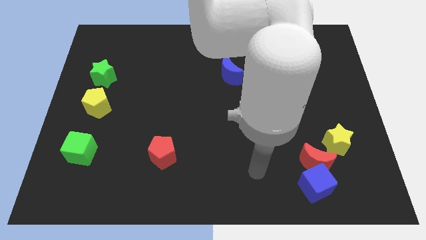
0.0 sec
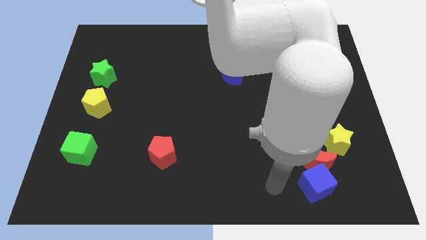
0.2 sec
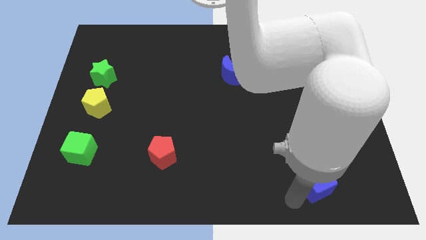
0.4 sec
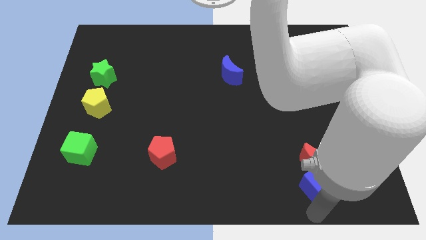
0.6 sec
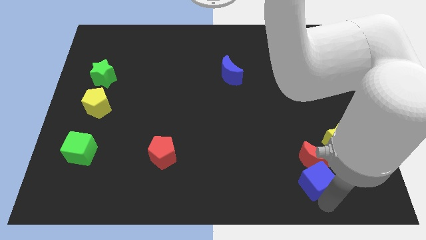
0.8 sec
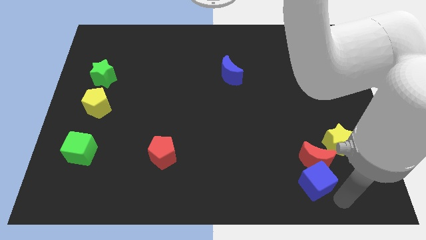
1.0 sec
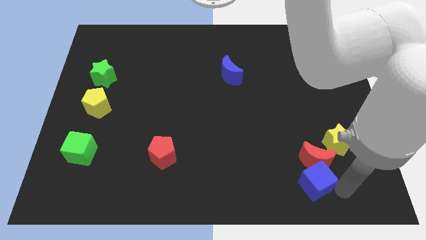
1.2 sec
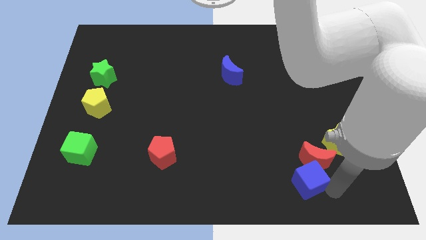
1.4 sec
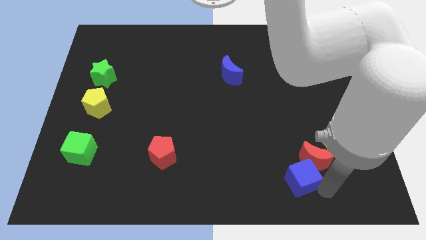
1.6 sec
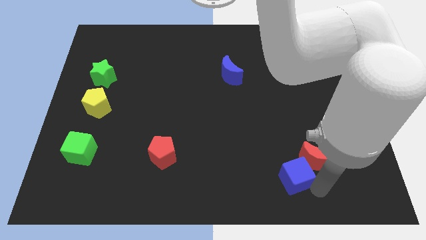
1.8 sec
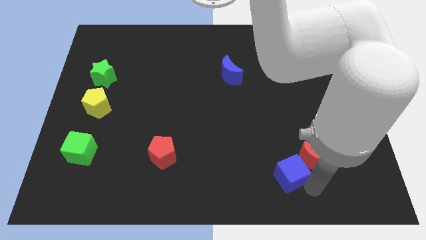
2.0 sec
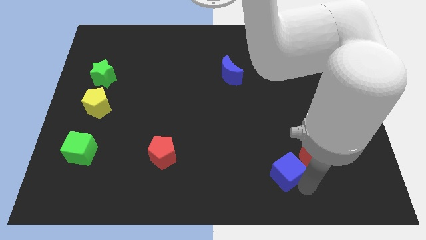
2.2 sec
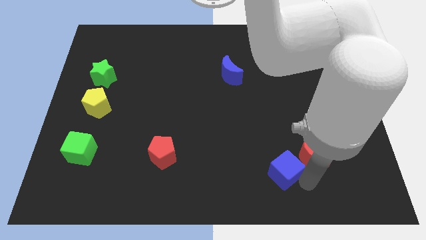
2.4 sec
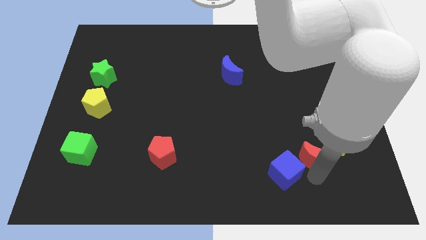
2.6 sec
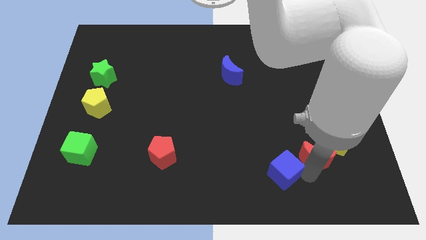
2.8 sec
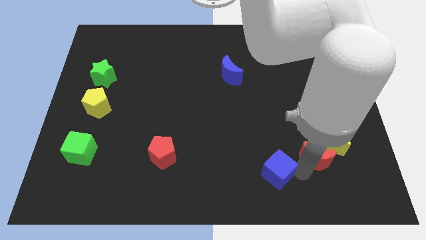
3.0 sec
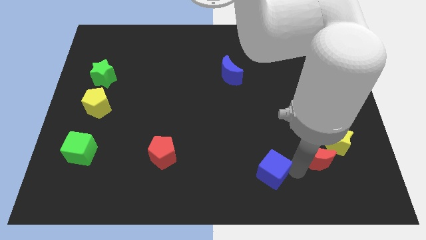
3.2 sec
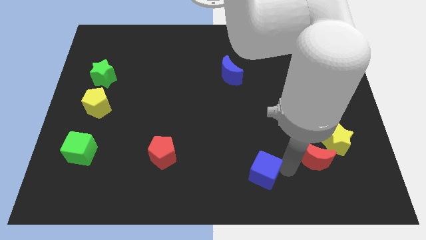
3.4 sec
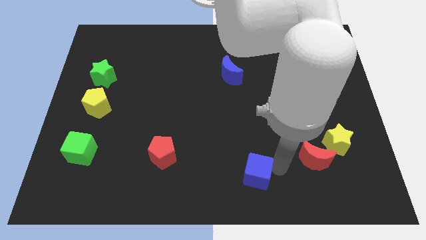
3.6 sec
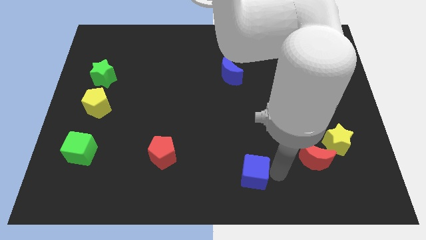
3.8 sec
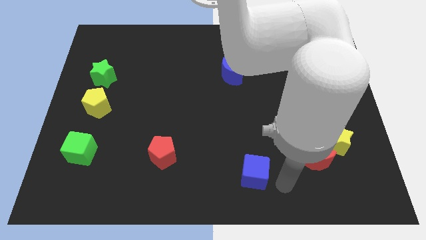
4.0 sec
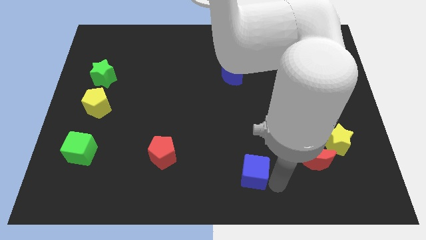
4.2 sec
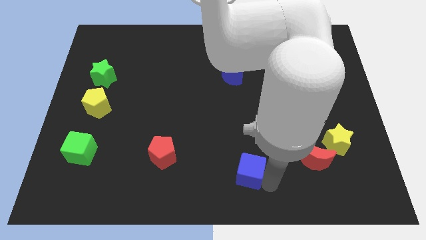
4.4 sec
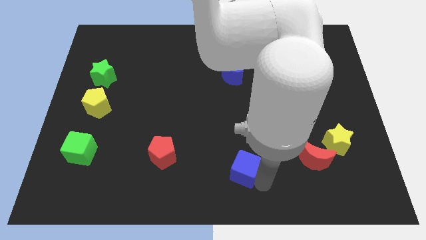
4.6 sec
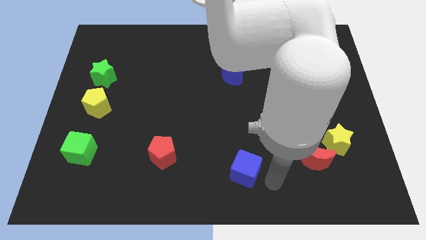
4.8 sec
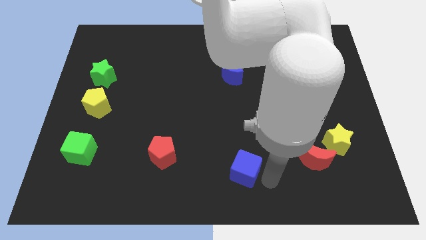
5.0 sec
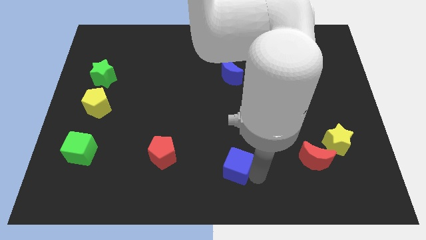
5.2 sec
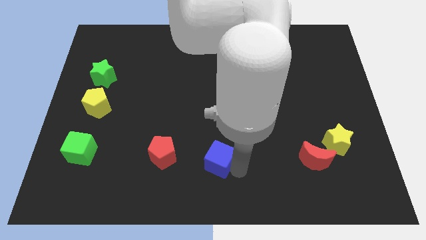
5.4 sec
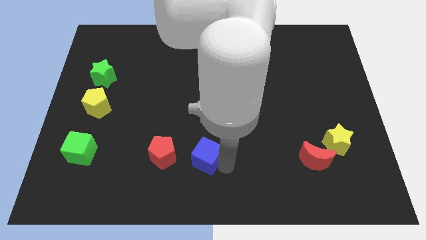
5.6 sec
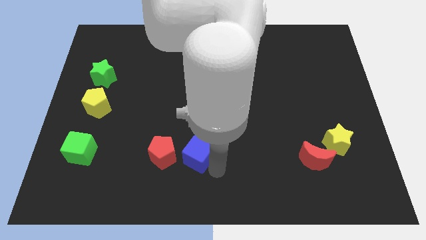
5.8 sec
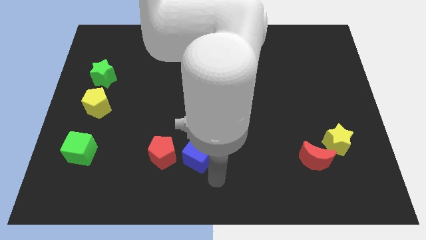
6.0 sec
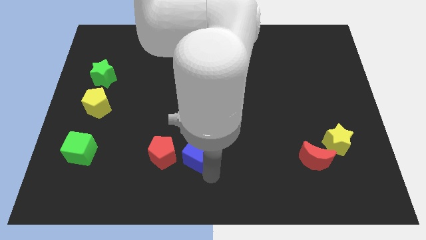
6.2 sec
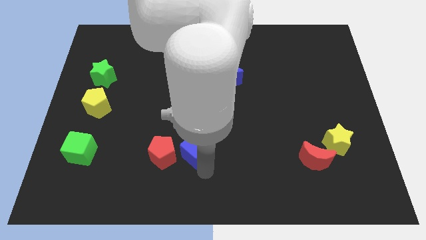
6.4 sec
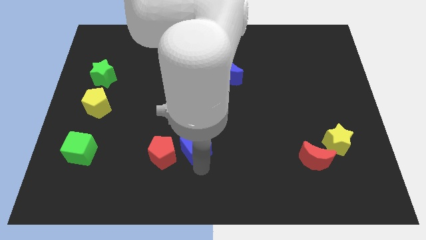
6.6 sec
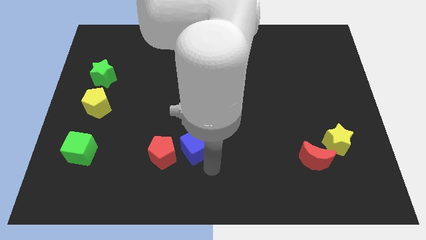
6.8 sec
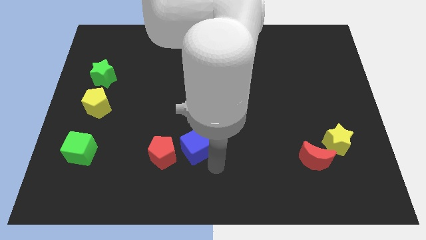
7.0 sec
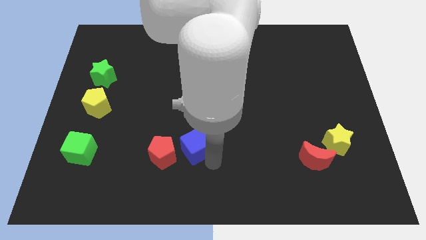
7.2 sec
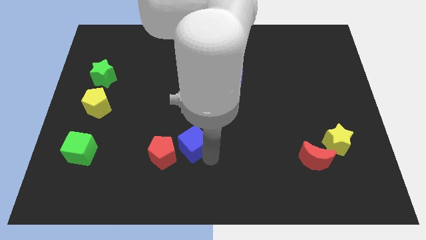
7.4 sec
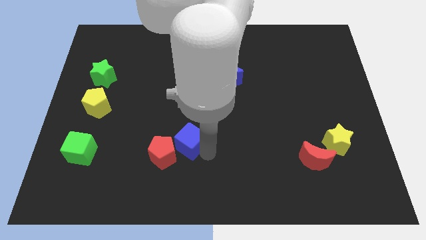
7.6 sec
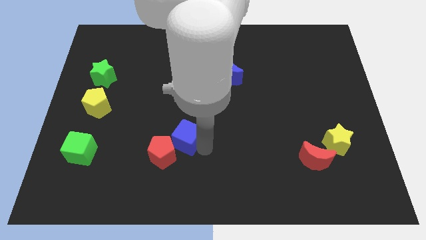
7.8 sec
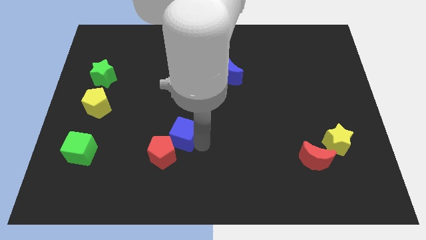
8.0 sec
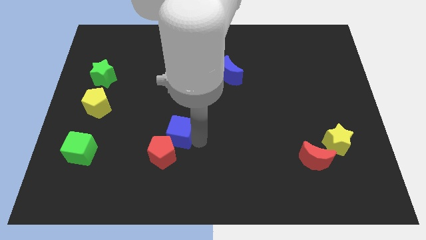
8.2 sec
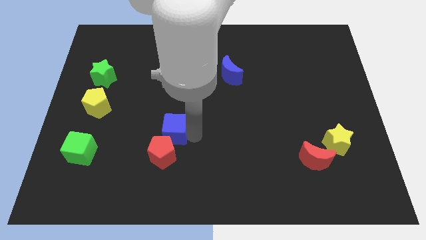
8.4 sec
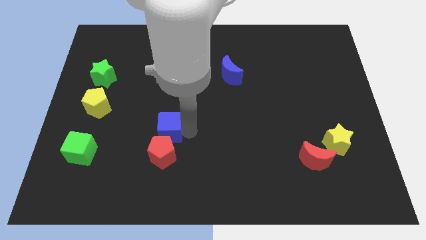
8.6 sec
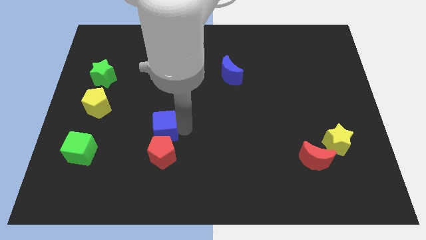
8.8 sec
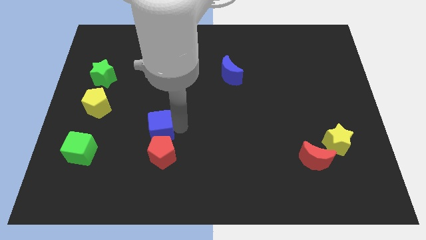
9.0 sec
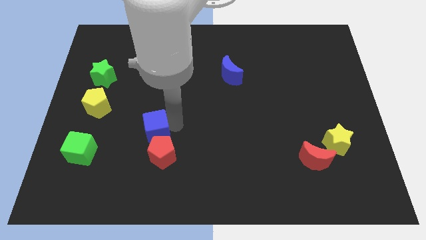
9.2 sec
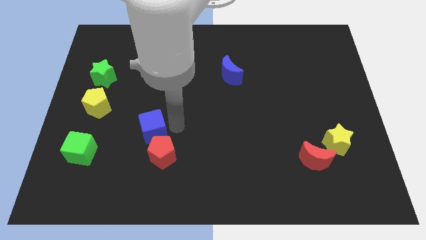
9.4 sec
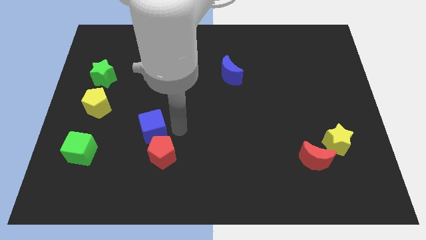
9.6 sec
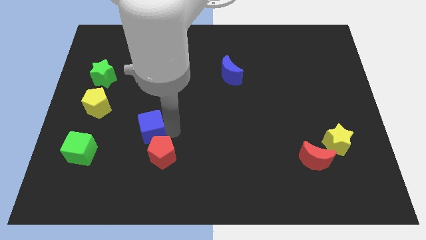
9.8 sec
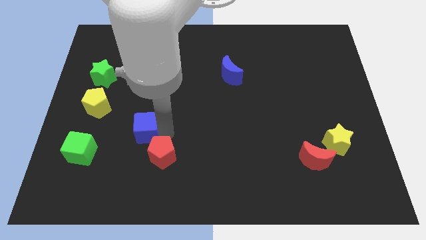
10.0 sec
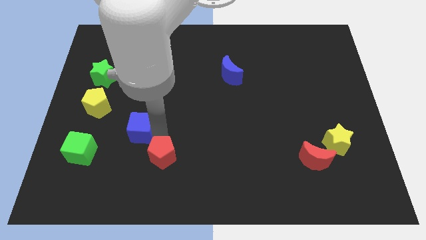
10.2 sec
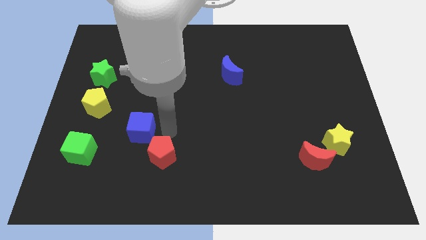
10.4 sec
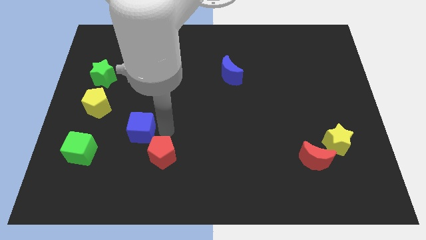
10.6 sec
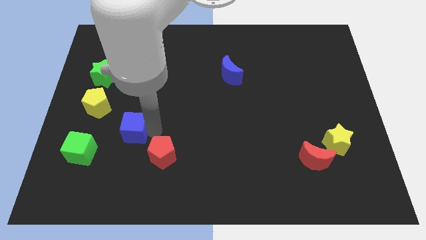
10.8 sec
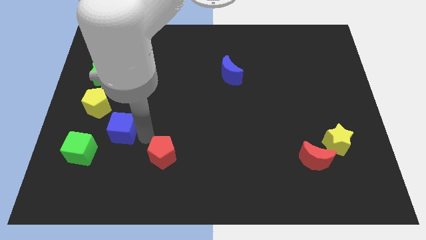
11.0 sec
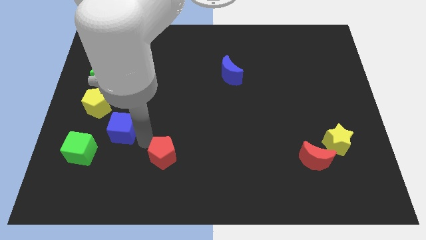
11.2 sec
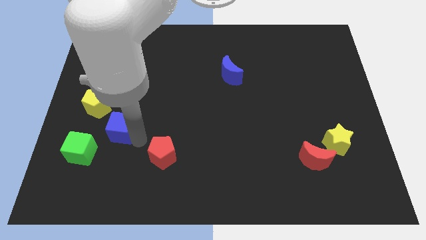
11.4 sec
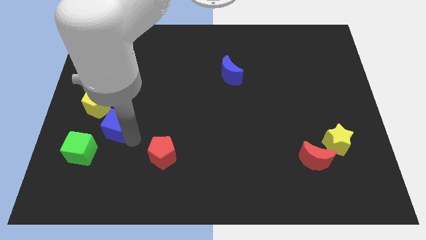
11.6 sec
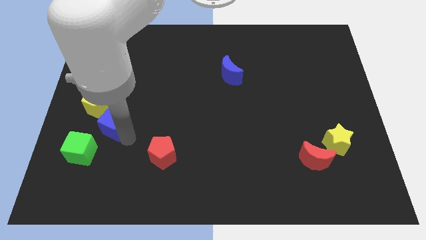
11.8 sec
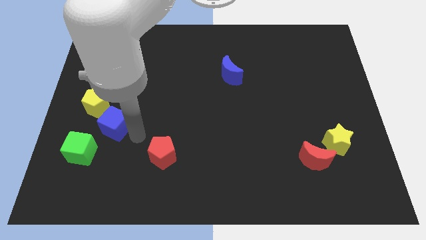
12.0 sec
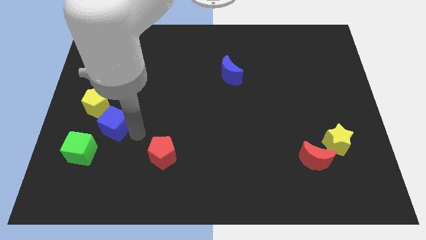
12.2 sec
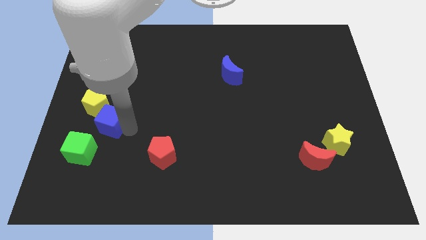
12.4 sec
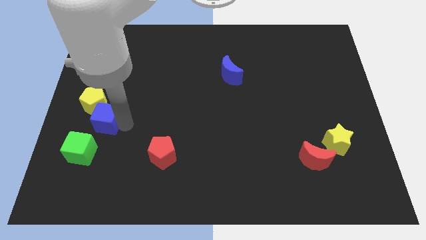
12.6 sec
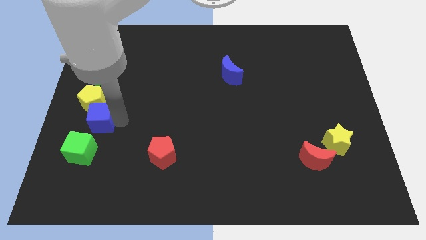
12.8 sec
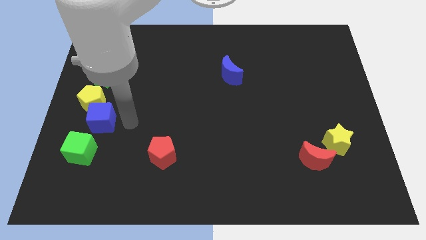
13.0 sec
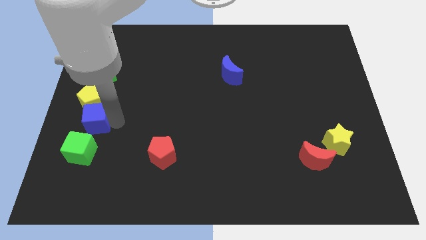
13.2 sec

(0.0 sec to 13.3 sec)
put the blue cube to the left side of the board
